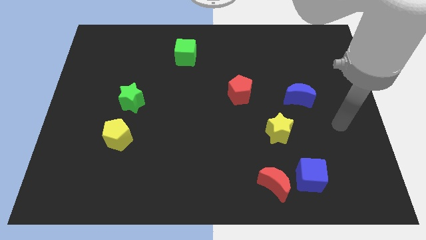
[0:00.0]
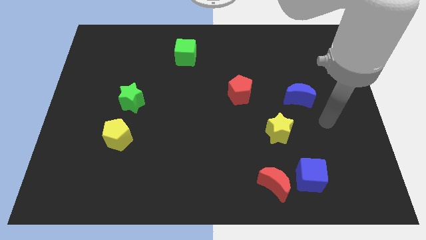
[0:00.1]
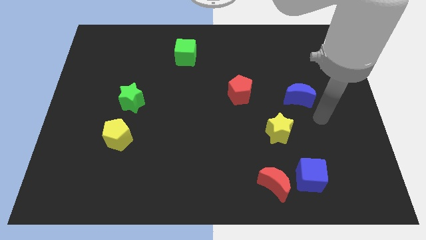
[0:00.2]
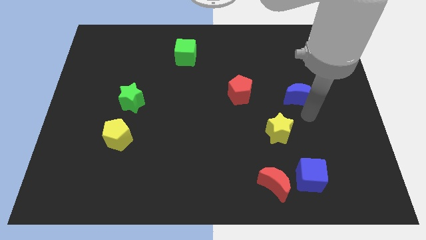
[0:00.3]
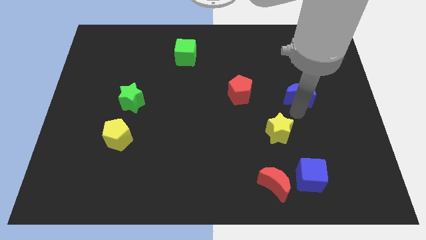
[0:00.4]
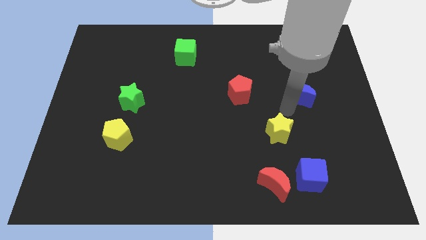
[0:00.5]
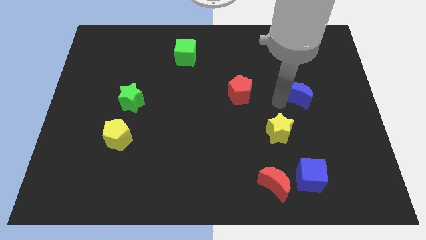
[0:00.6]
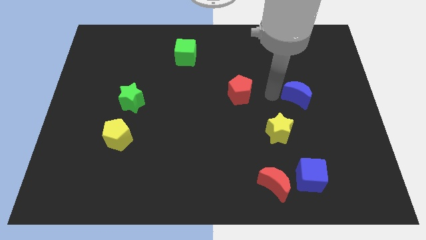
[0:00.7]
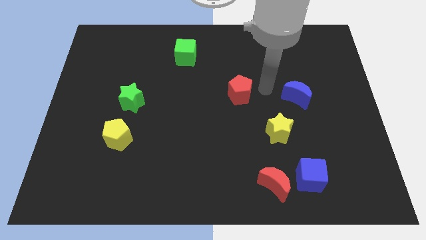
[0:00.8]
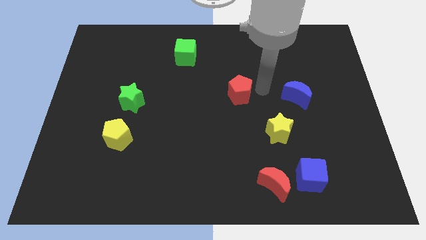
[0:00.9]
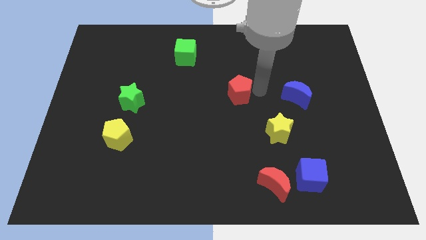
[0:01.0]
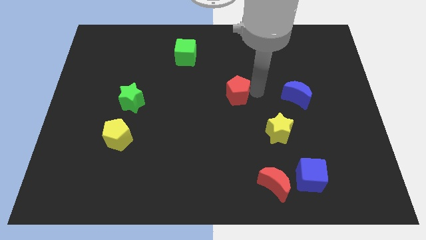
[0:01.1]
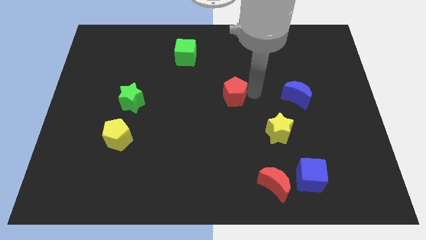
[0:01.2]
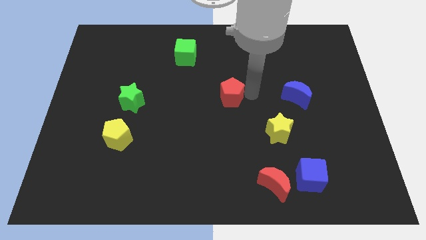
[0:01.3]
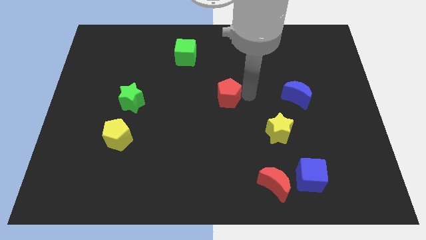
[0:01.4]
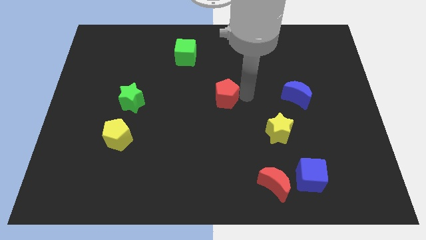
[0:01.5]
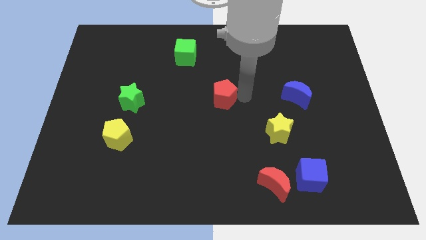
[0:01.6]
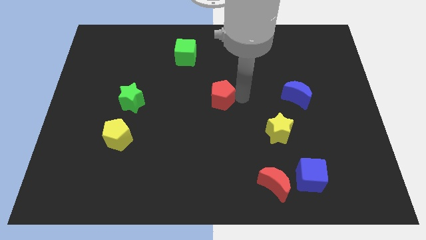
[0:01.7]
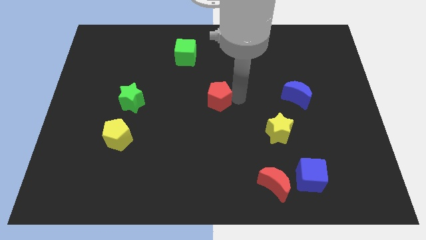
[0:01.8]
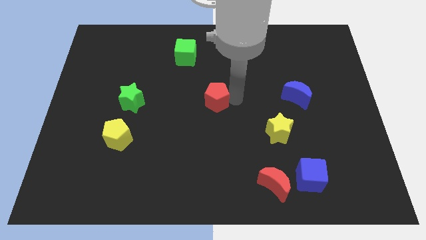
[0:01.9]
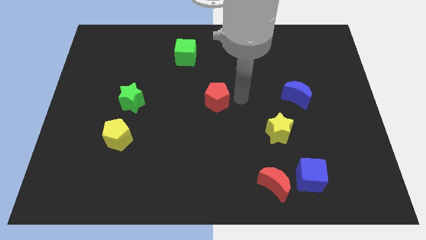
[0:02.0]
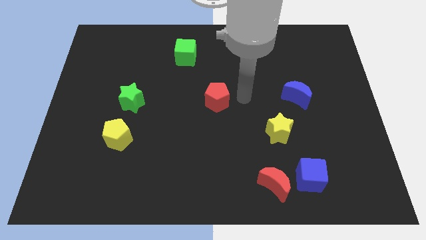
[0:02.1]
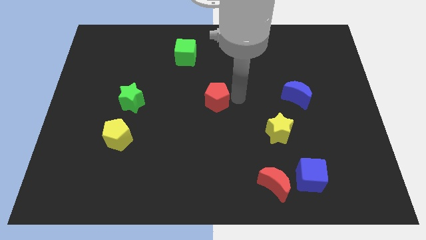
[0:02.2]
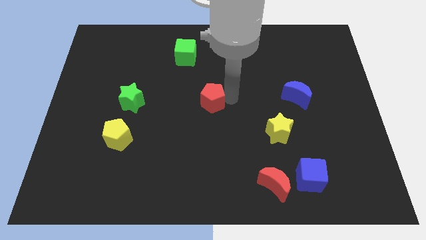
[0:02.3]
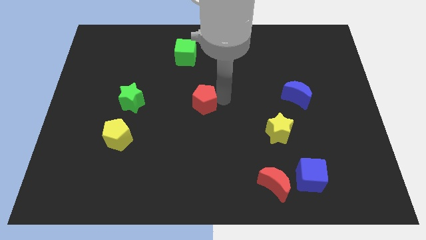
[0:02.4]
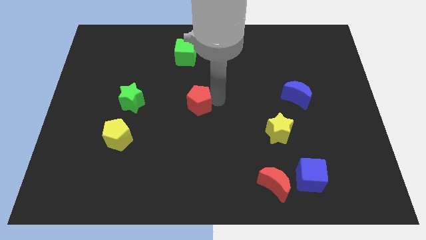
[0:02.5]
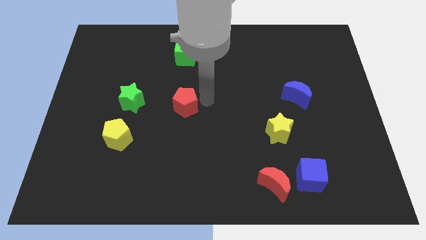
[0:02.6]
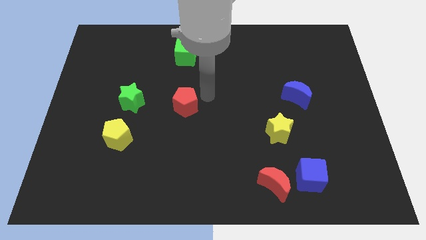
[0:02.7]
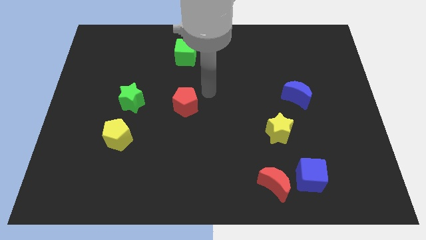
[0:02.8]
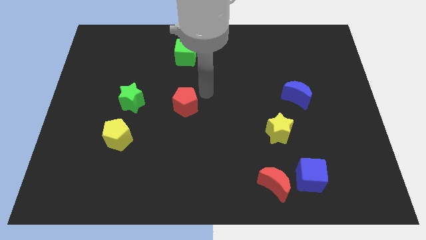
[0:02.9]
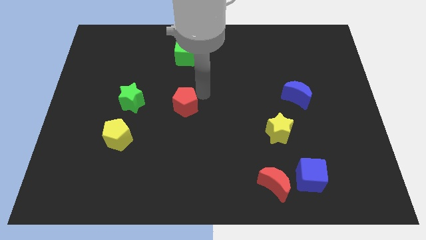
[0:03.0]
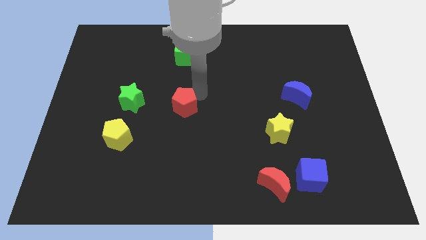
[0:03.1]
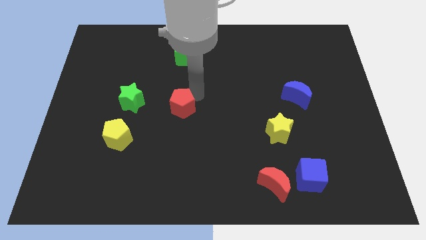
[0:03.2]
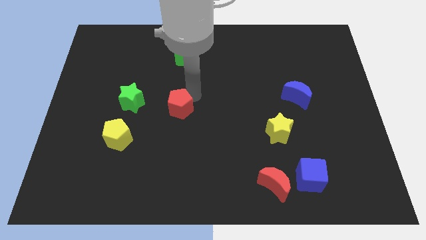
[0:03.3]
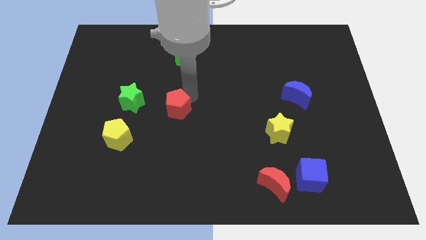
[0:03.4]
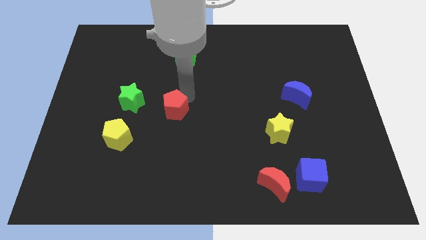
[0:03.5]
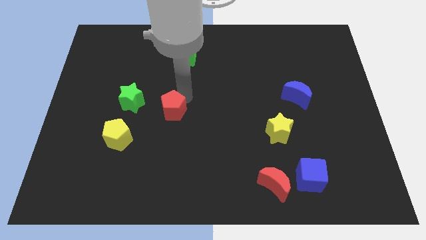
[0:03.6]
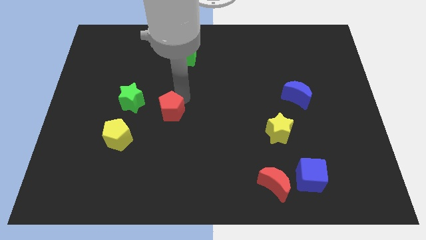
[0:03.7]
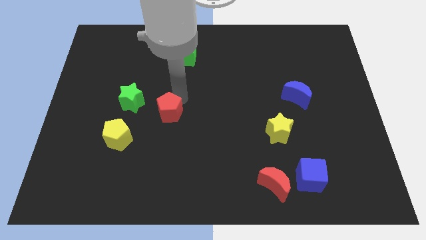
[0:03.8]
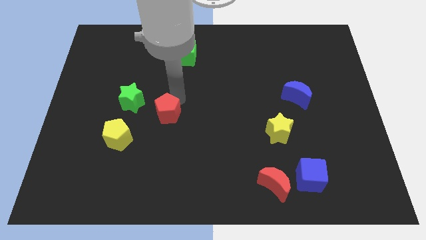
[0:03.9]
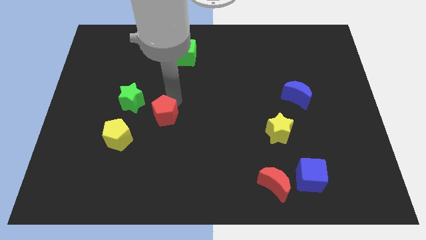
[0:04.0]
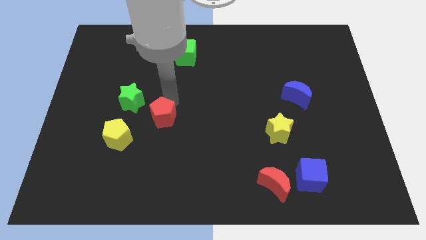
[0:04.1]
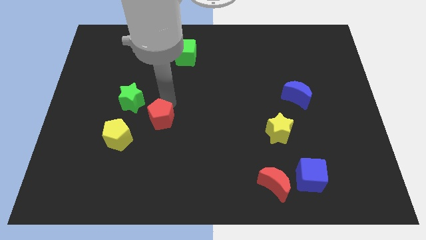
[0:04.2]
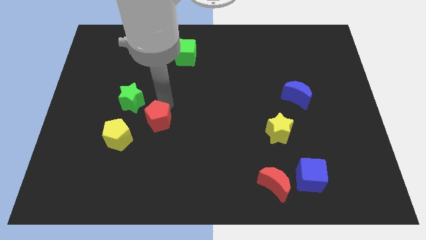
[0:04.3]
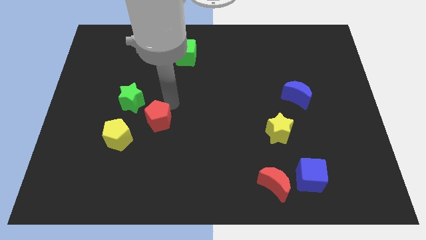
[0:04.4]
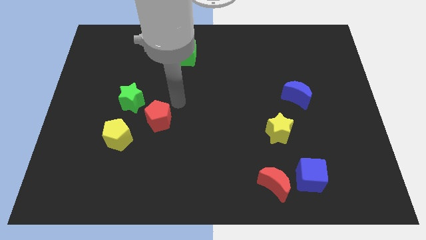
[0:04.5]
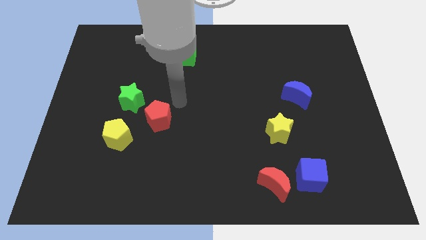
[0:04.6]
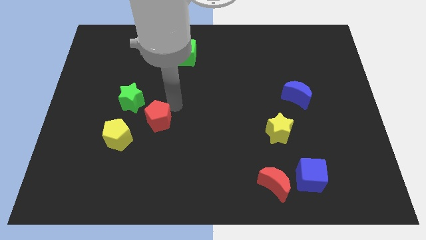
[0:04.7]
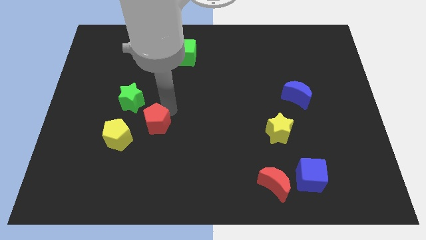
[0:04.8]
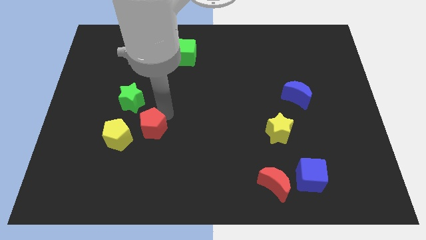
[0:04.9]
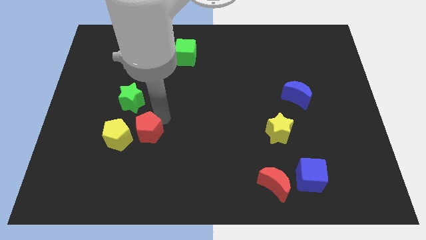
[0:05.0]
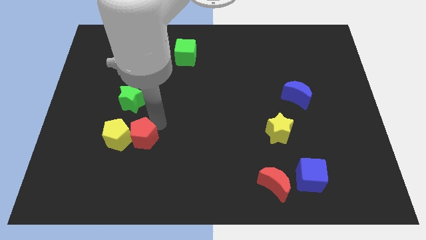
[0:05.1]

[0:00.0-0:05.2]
move the red pentagon to the yellow pentagon

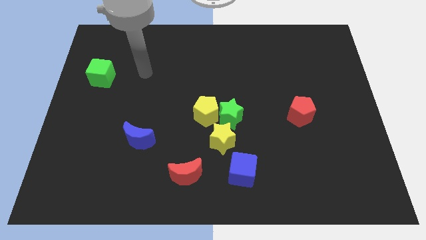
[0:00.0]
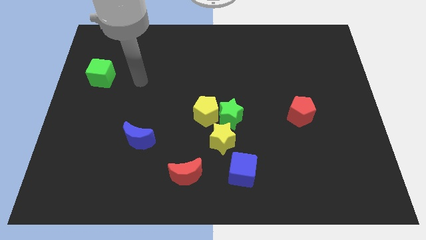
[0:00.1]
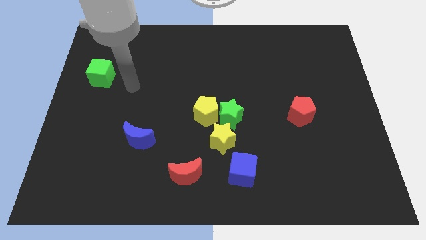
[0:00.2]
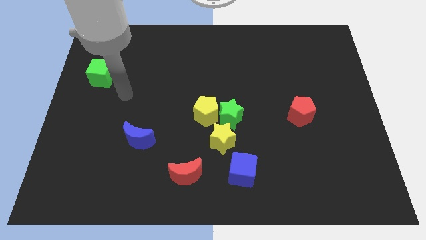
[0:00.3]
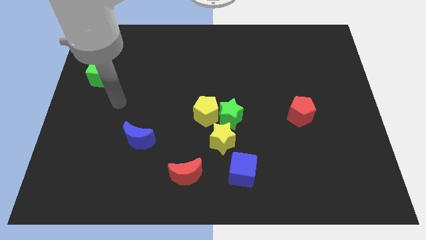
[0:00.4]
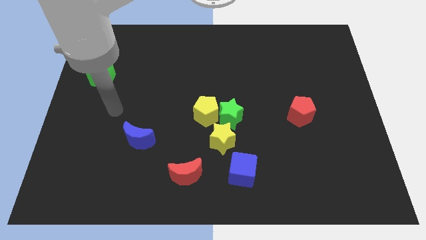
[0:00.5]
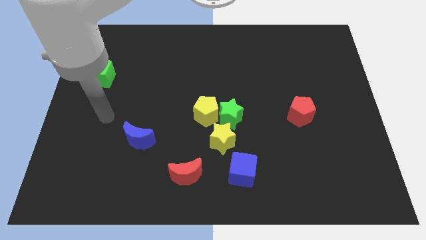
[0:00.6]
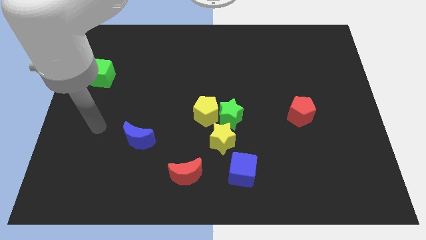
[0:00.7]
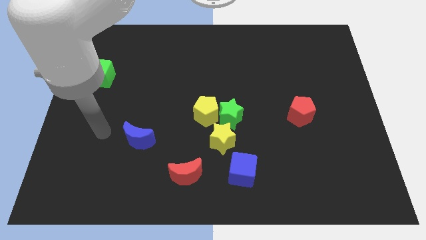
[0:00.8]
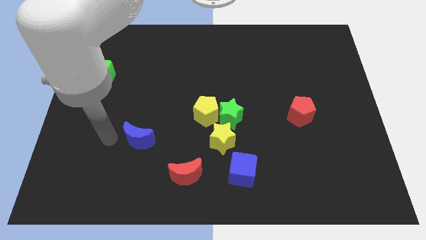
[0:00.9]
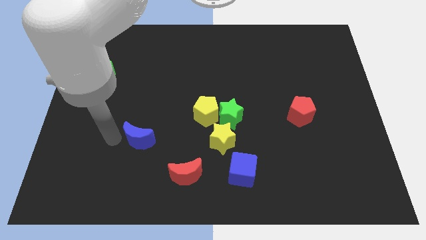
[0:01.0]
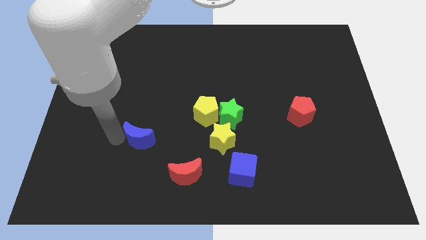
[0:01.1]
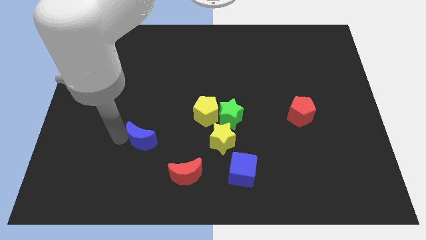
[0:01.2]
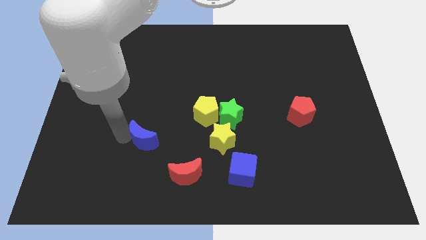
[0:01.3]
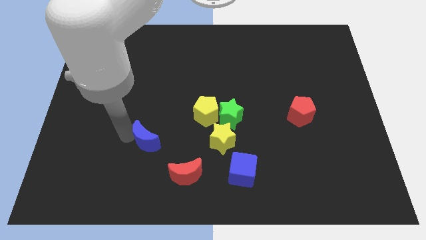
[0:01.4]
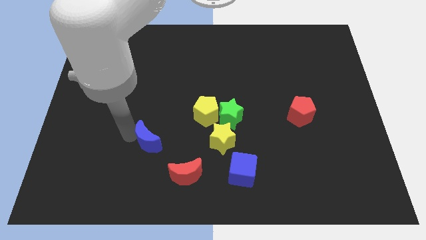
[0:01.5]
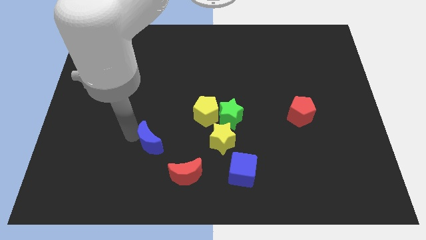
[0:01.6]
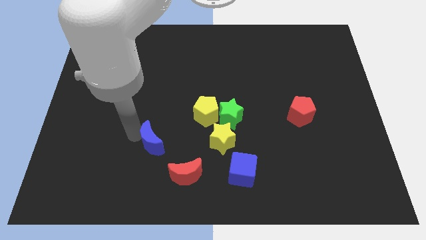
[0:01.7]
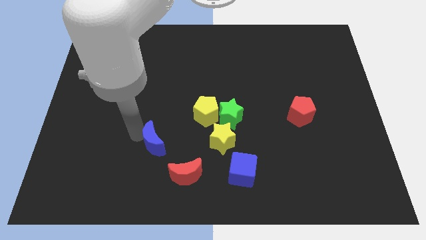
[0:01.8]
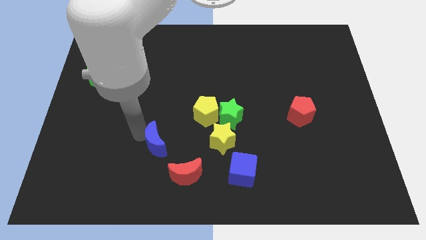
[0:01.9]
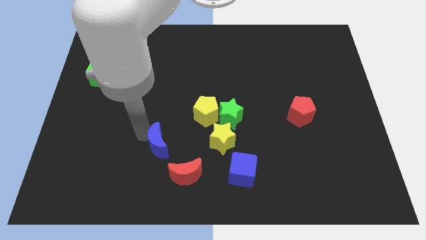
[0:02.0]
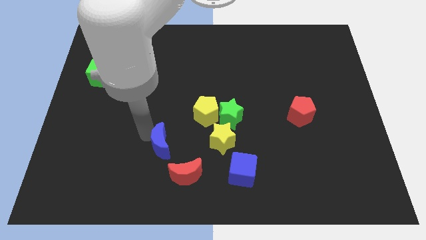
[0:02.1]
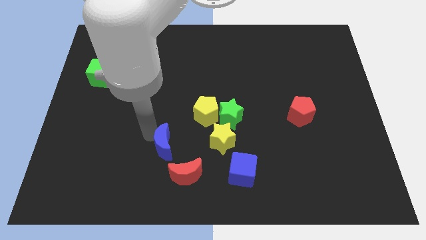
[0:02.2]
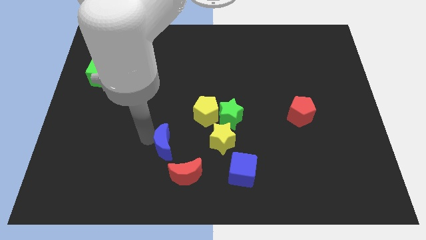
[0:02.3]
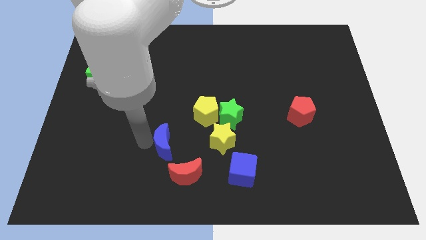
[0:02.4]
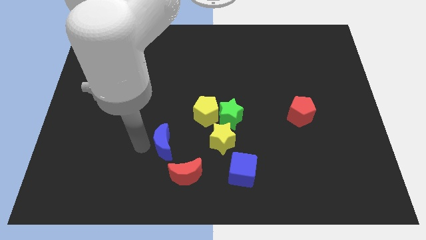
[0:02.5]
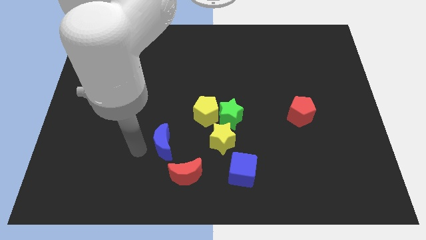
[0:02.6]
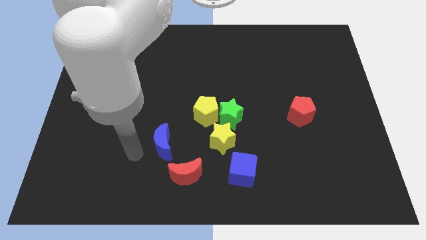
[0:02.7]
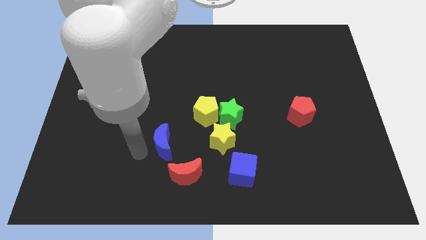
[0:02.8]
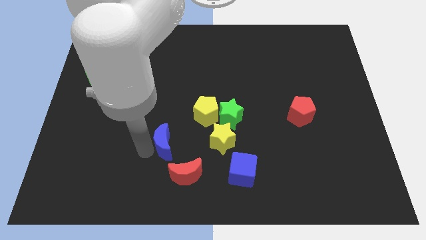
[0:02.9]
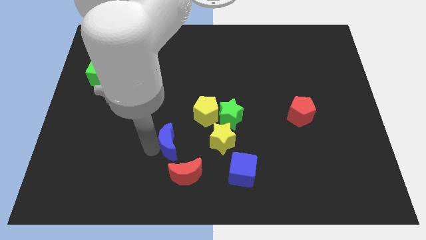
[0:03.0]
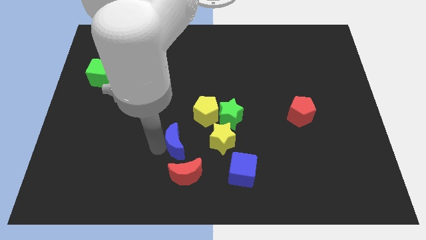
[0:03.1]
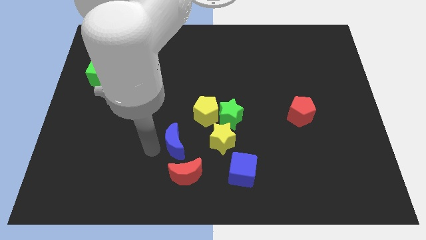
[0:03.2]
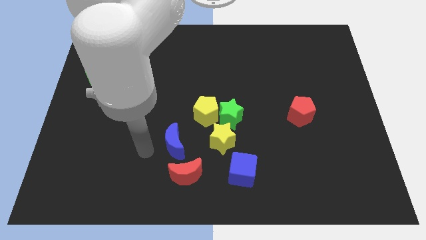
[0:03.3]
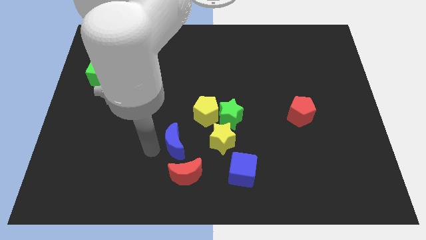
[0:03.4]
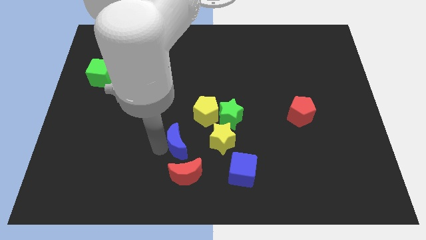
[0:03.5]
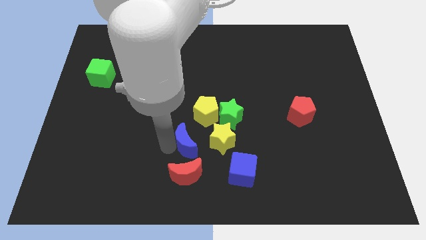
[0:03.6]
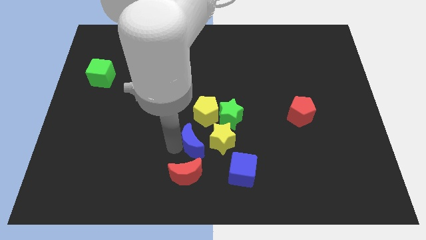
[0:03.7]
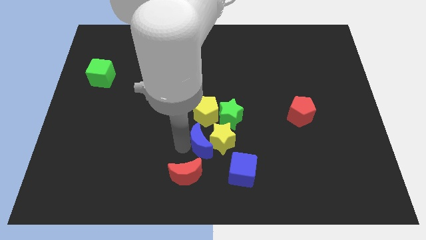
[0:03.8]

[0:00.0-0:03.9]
move the blue moon to the yellow star
